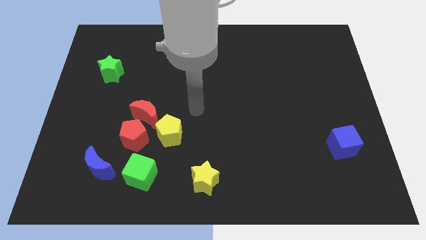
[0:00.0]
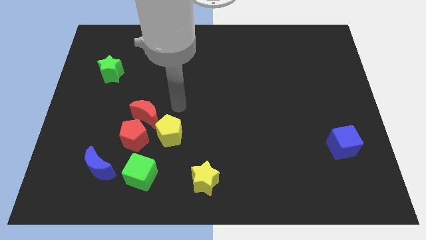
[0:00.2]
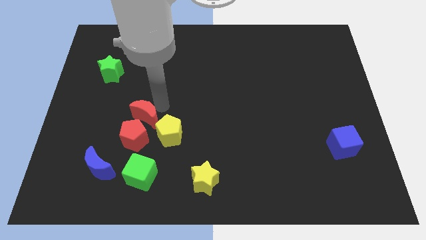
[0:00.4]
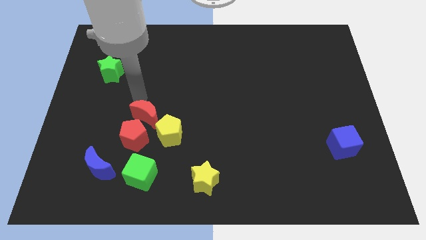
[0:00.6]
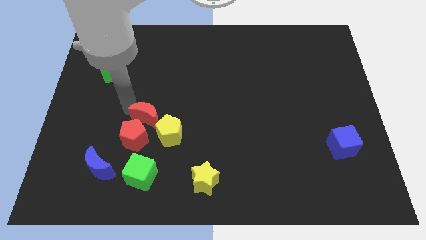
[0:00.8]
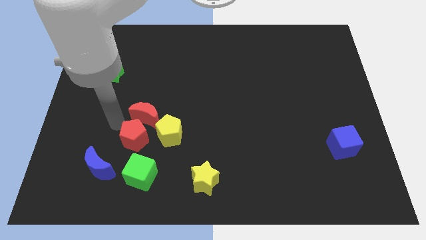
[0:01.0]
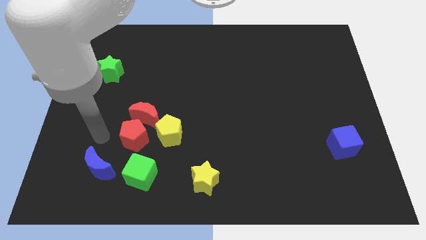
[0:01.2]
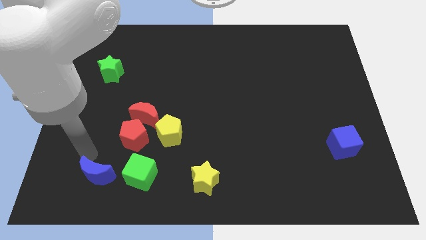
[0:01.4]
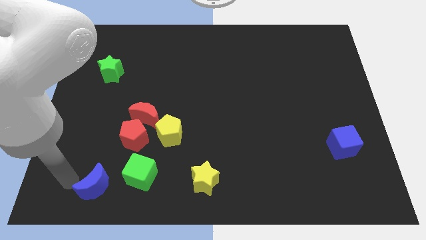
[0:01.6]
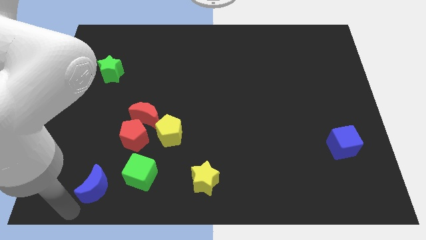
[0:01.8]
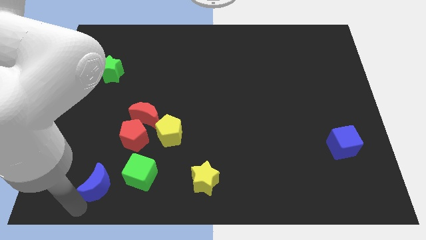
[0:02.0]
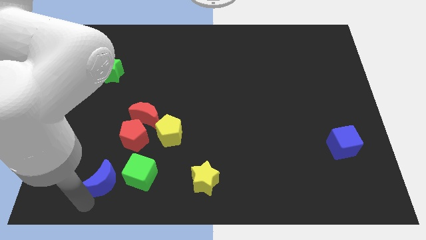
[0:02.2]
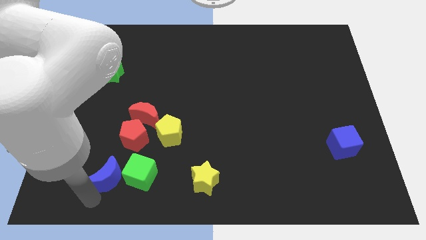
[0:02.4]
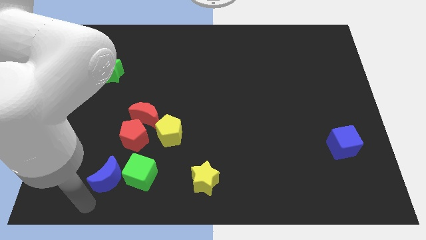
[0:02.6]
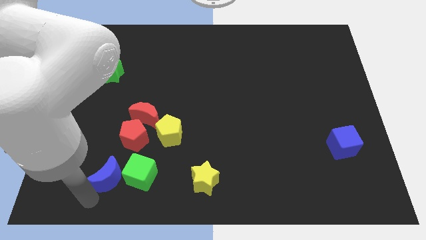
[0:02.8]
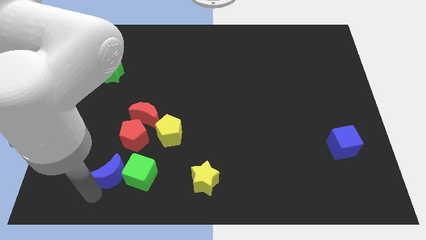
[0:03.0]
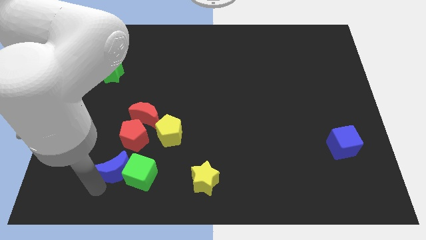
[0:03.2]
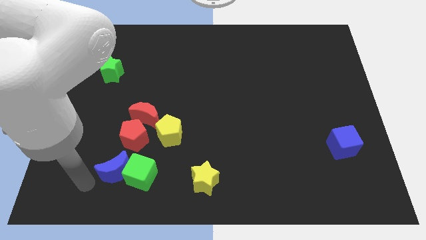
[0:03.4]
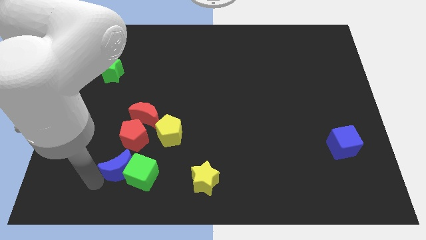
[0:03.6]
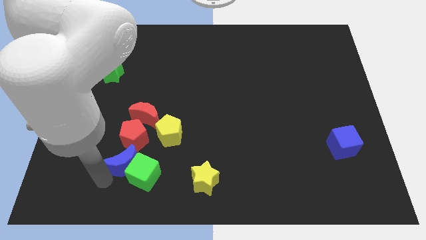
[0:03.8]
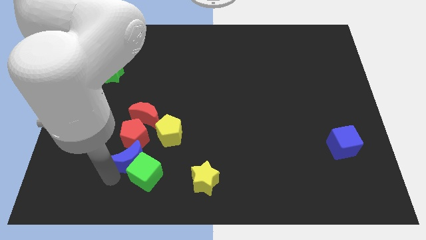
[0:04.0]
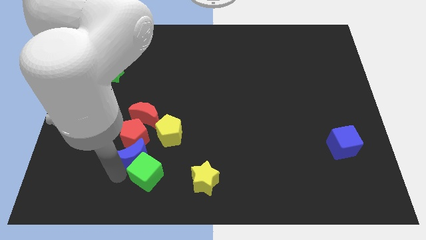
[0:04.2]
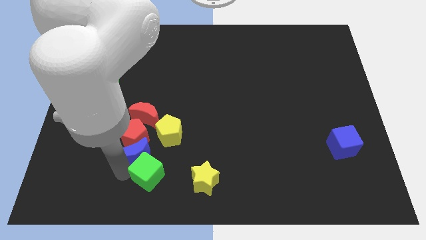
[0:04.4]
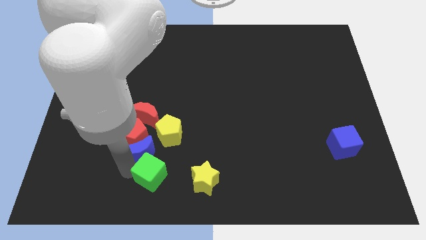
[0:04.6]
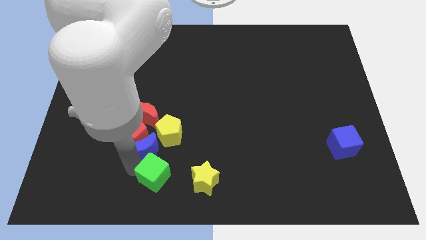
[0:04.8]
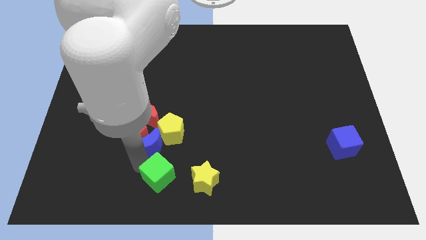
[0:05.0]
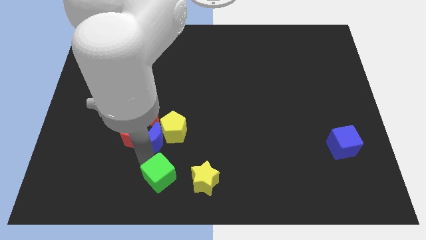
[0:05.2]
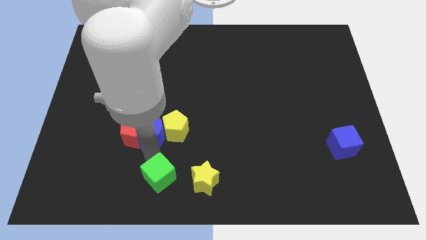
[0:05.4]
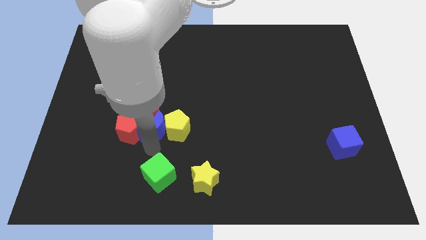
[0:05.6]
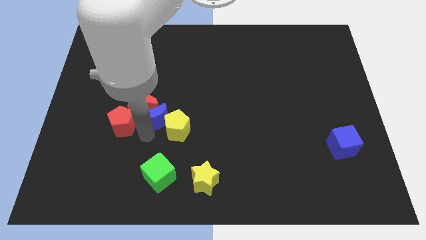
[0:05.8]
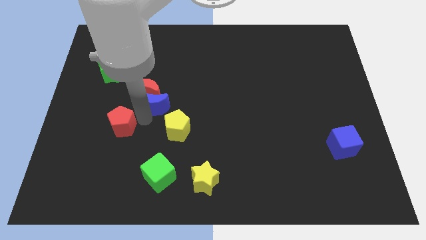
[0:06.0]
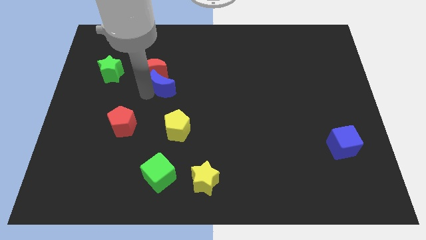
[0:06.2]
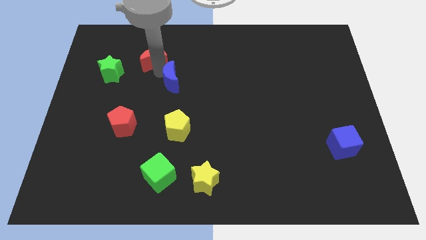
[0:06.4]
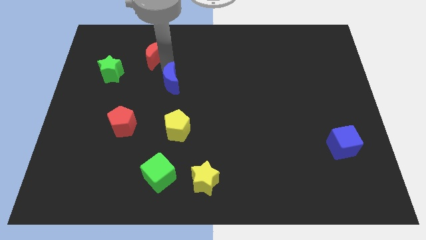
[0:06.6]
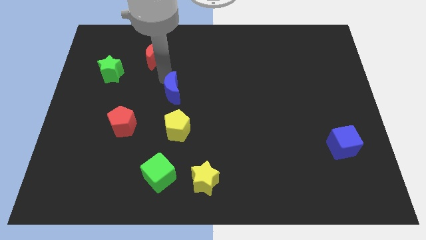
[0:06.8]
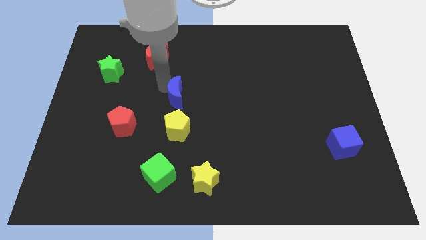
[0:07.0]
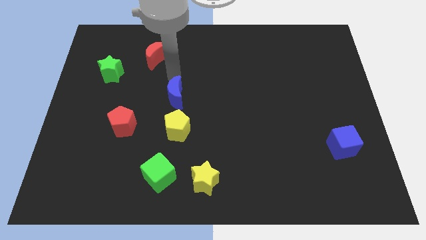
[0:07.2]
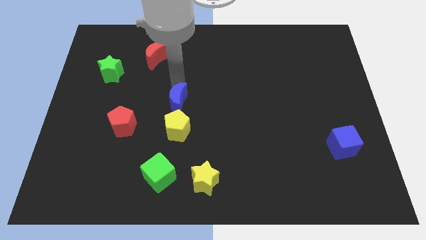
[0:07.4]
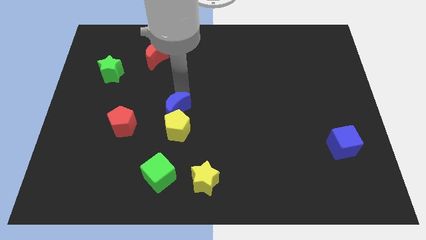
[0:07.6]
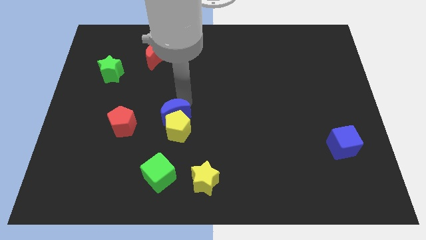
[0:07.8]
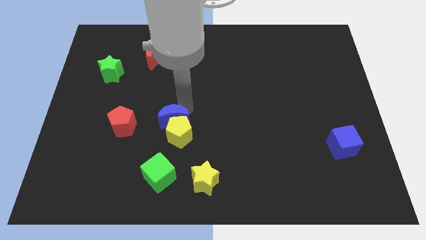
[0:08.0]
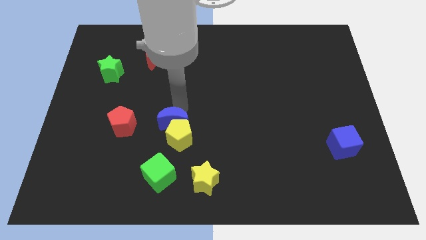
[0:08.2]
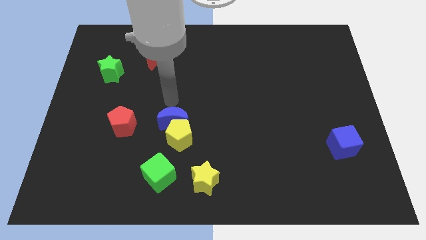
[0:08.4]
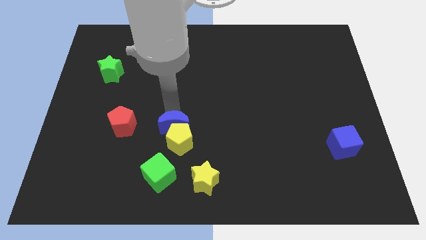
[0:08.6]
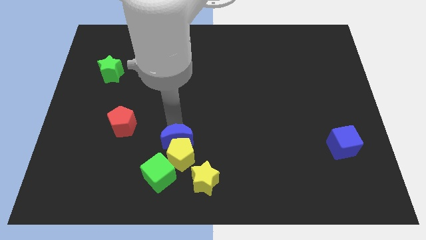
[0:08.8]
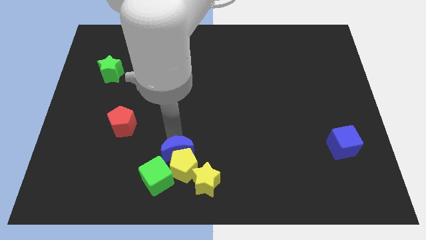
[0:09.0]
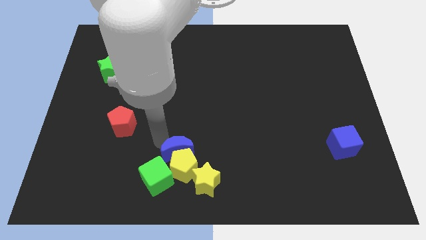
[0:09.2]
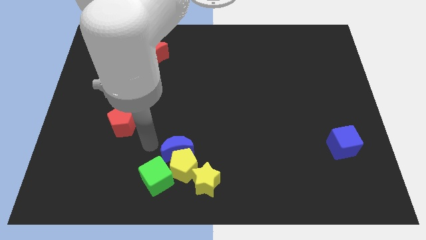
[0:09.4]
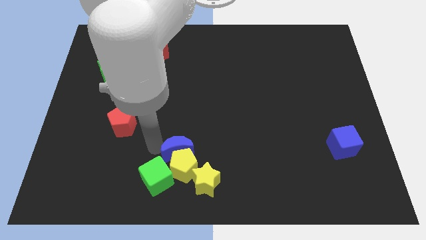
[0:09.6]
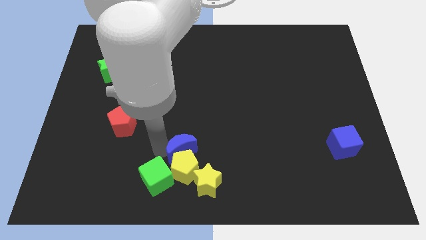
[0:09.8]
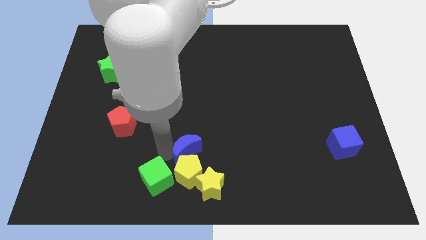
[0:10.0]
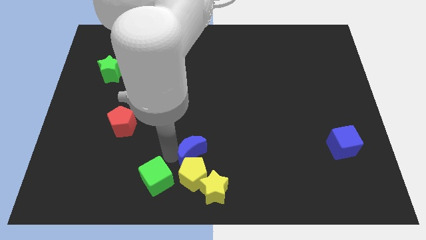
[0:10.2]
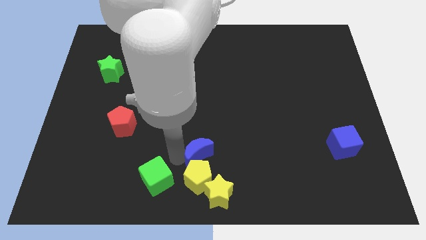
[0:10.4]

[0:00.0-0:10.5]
slide the blue moon to the right

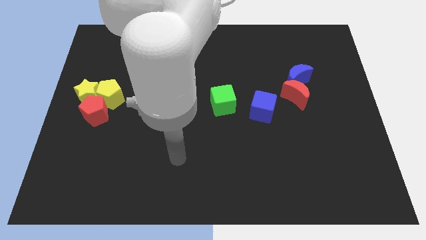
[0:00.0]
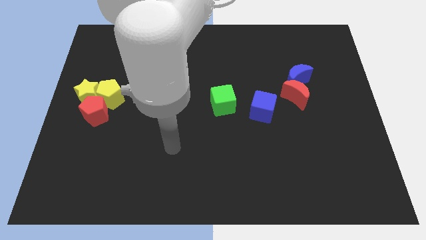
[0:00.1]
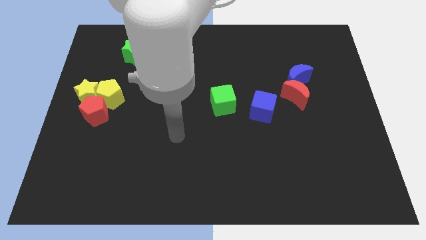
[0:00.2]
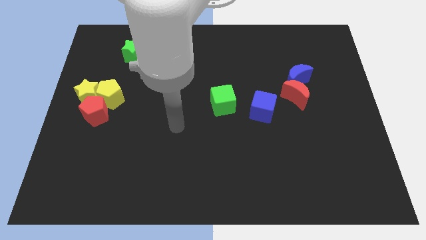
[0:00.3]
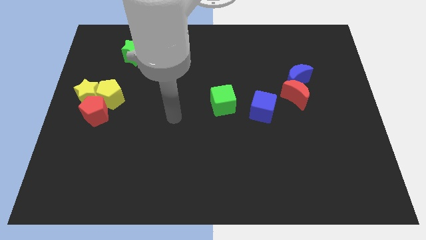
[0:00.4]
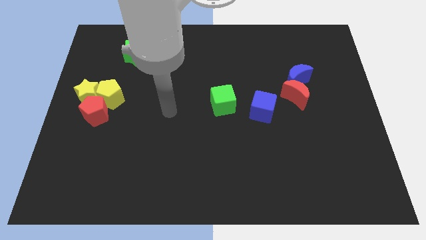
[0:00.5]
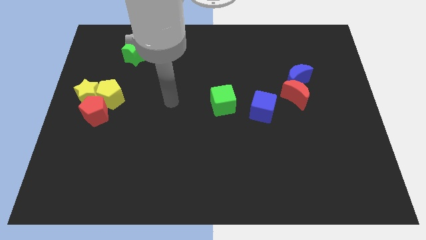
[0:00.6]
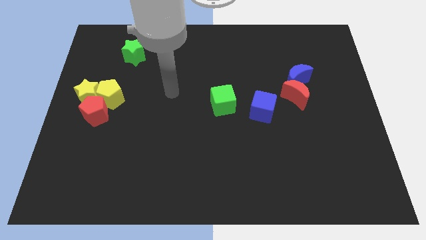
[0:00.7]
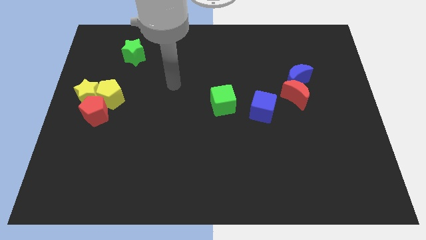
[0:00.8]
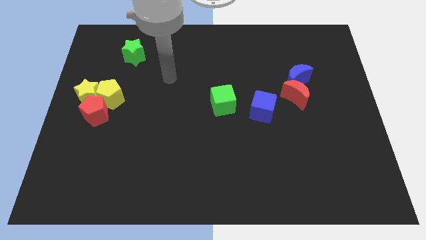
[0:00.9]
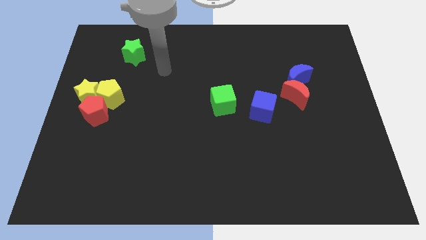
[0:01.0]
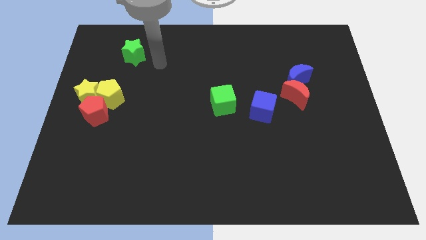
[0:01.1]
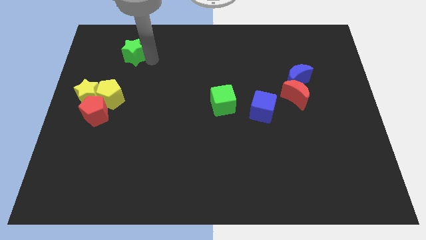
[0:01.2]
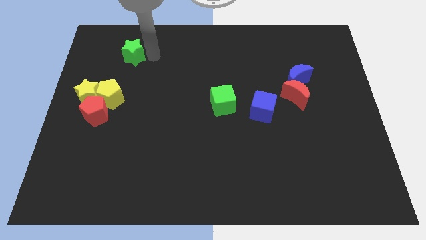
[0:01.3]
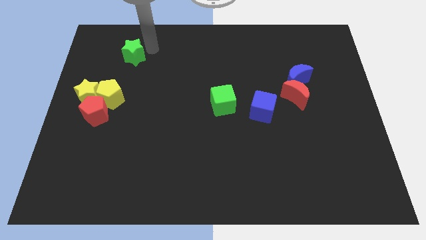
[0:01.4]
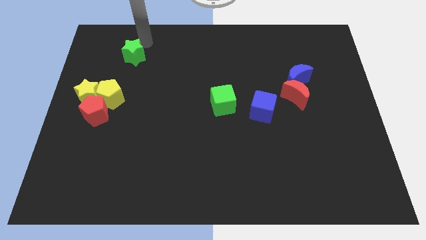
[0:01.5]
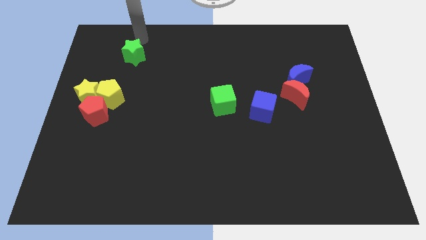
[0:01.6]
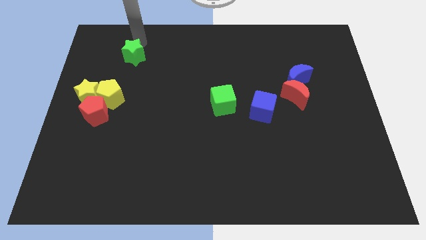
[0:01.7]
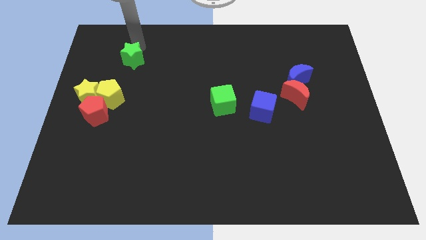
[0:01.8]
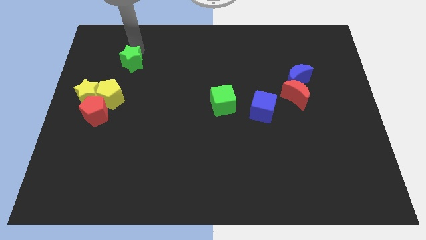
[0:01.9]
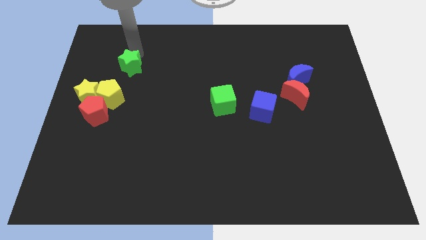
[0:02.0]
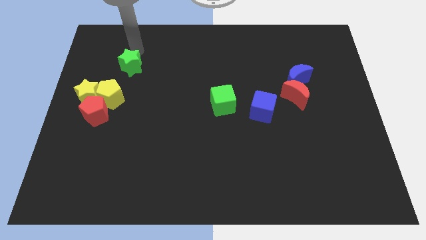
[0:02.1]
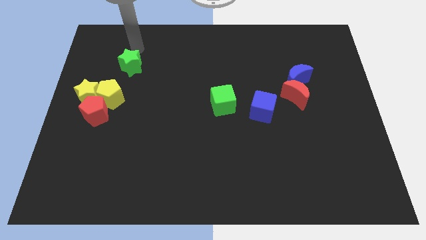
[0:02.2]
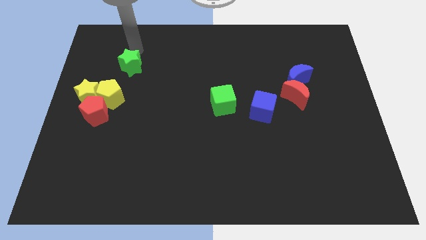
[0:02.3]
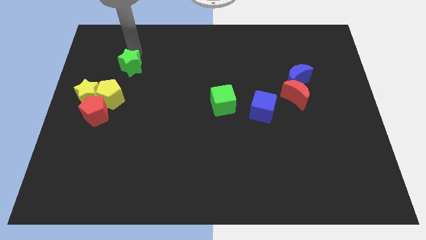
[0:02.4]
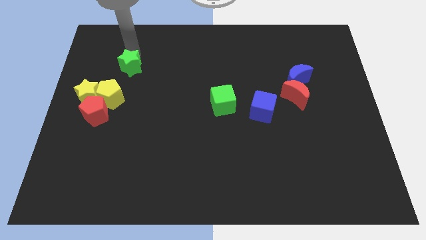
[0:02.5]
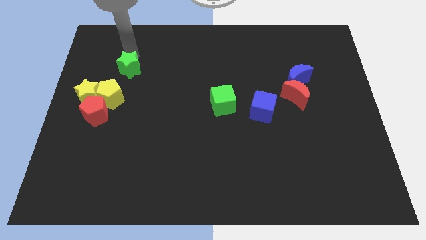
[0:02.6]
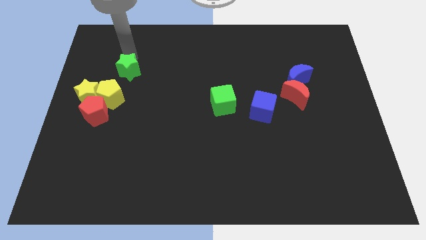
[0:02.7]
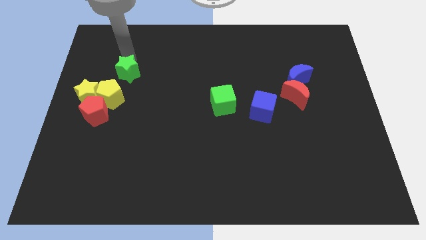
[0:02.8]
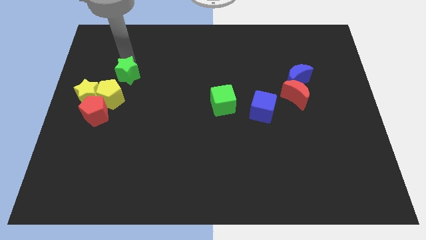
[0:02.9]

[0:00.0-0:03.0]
slightly slide the green star down
